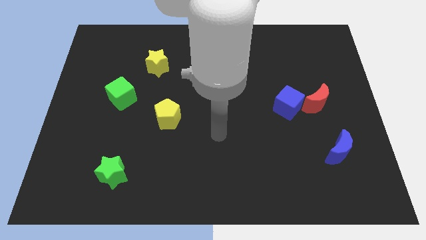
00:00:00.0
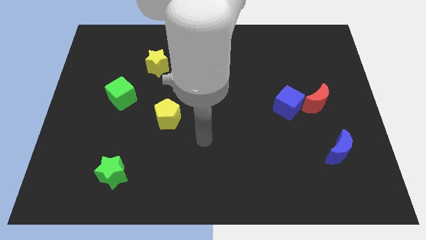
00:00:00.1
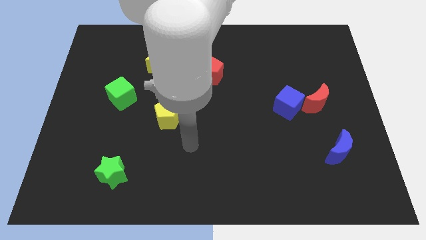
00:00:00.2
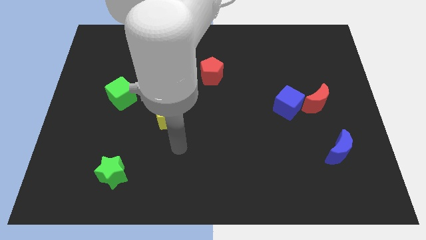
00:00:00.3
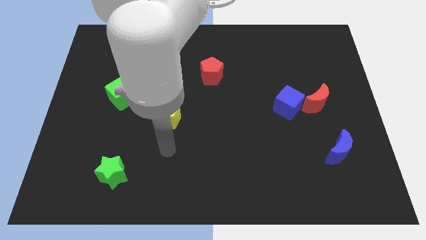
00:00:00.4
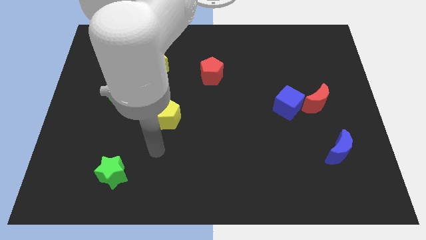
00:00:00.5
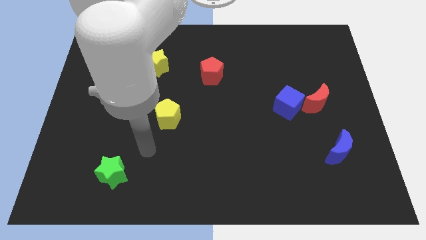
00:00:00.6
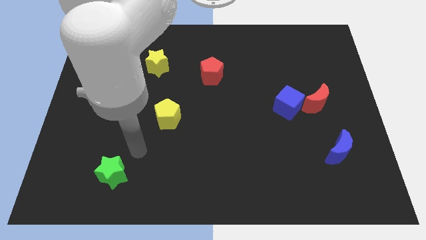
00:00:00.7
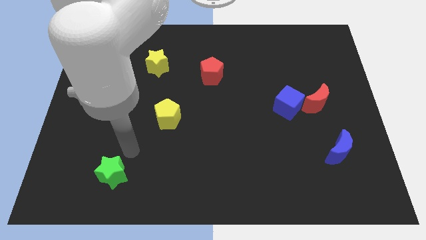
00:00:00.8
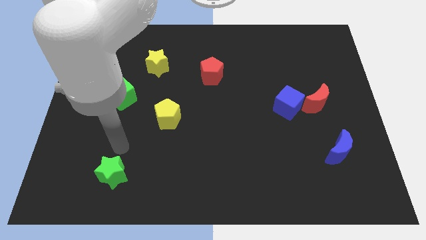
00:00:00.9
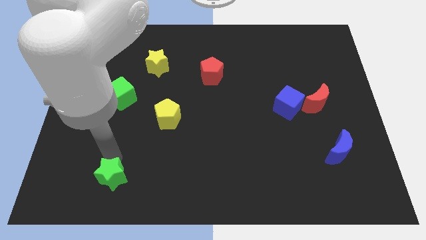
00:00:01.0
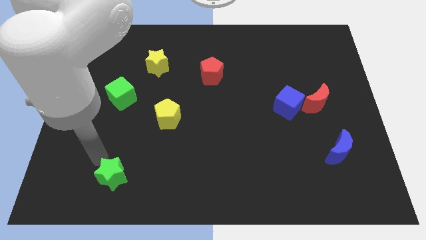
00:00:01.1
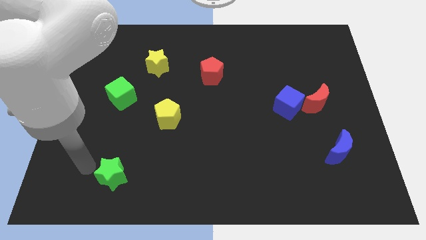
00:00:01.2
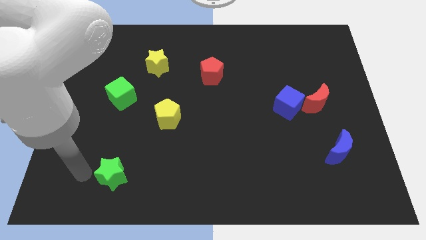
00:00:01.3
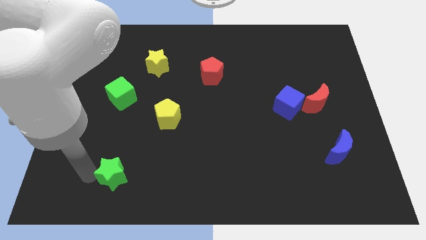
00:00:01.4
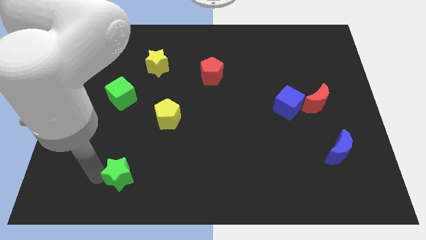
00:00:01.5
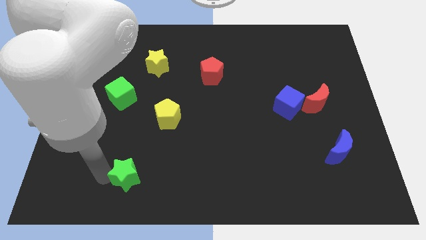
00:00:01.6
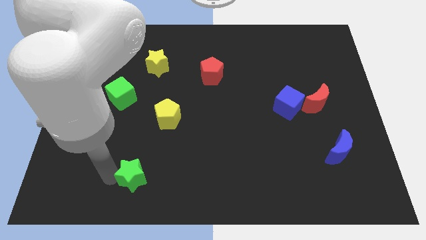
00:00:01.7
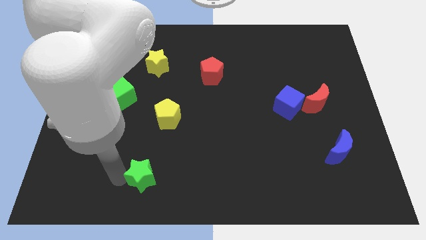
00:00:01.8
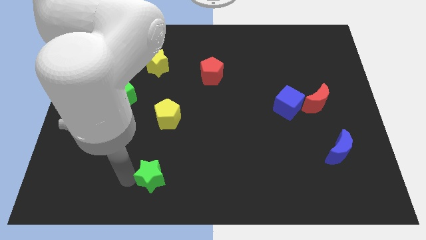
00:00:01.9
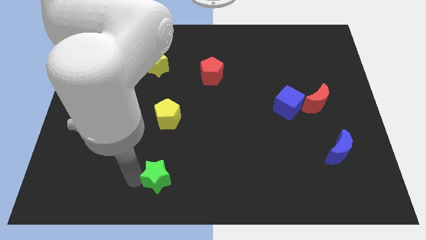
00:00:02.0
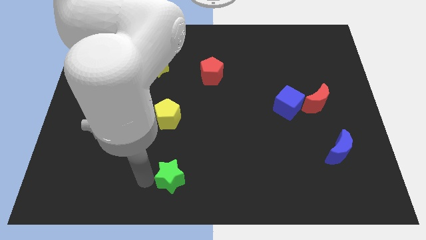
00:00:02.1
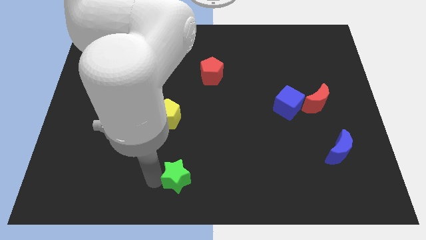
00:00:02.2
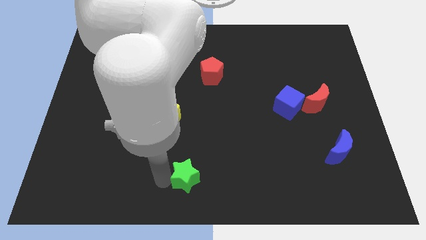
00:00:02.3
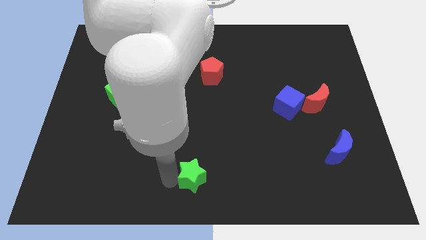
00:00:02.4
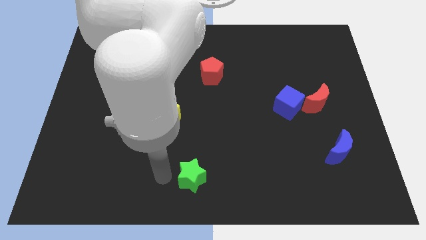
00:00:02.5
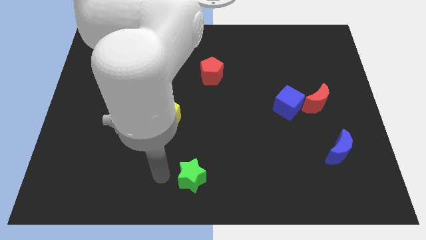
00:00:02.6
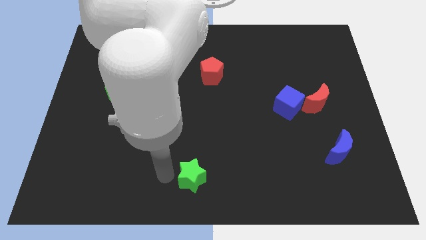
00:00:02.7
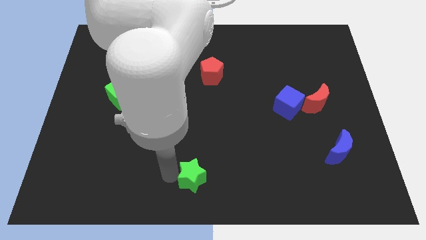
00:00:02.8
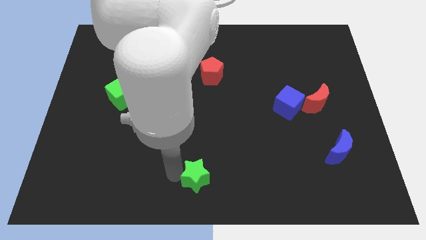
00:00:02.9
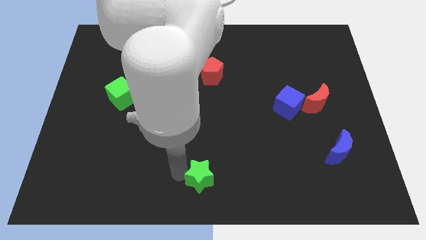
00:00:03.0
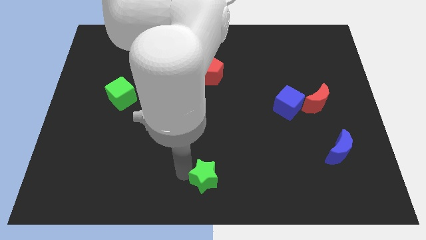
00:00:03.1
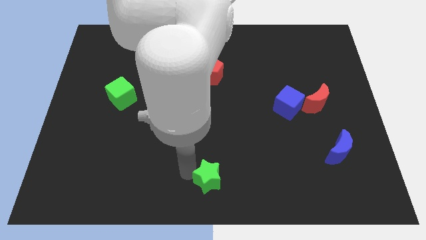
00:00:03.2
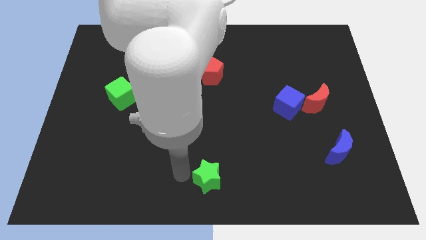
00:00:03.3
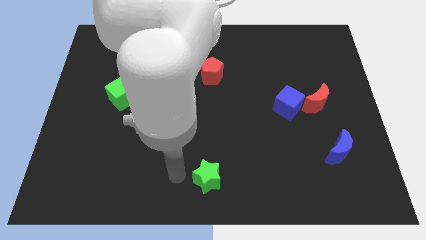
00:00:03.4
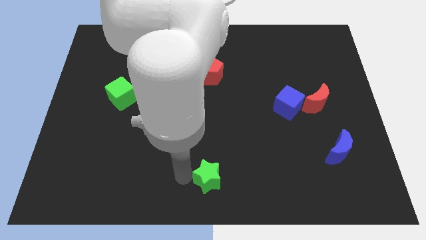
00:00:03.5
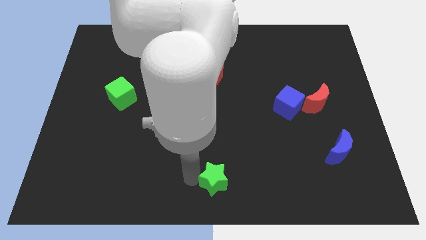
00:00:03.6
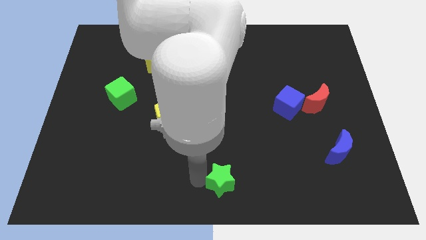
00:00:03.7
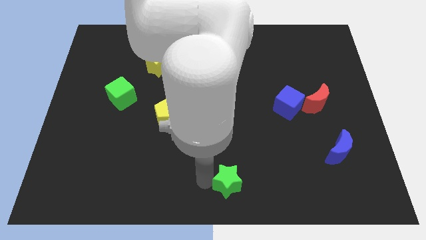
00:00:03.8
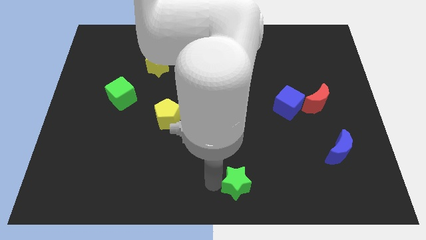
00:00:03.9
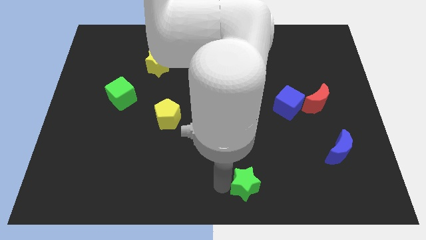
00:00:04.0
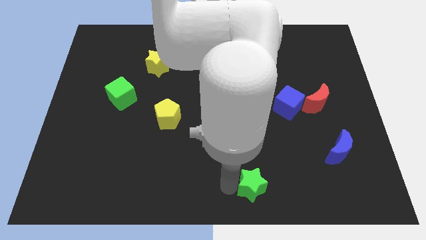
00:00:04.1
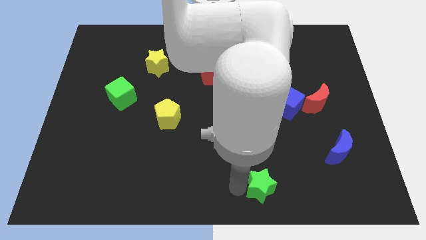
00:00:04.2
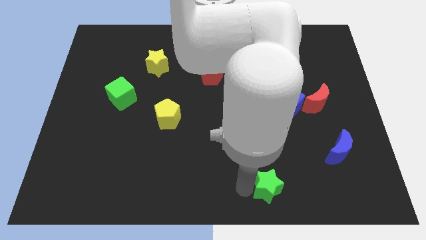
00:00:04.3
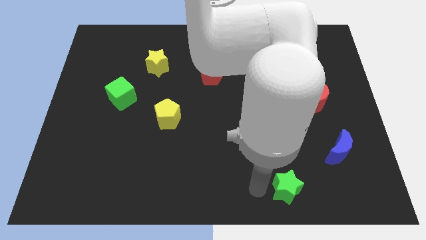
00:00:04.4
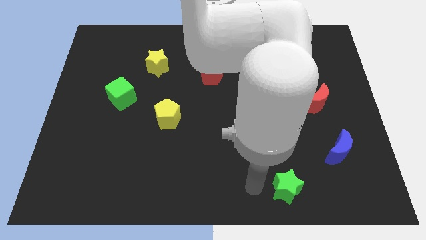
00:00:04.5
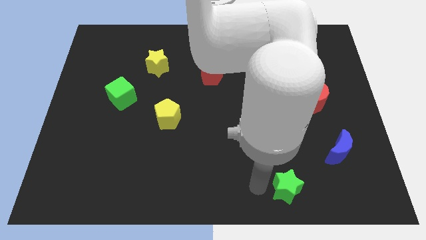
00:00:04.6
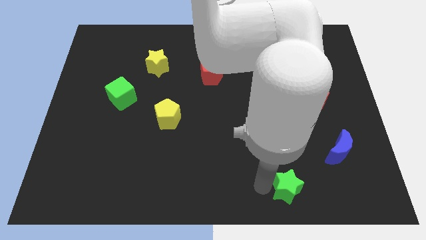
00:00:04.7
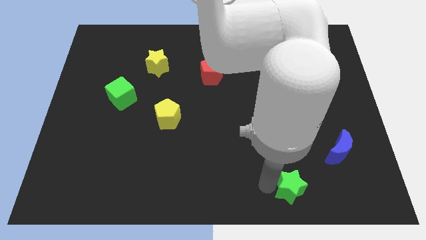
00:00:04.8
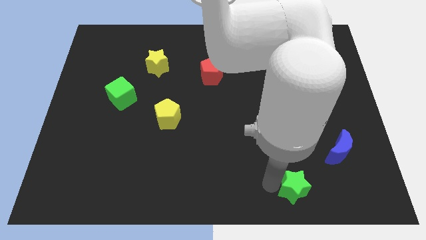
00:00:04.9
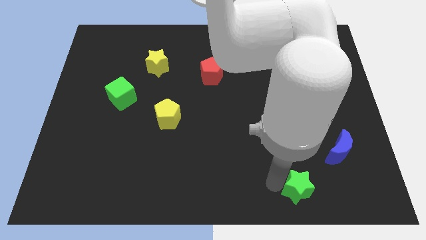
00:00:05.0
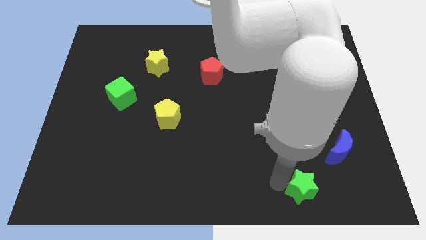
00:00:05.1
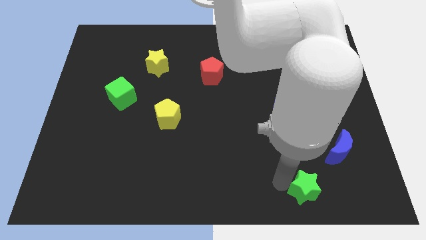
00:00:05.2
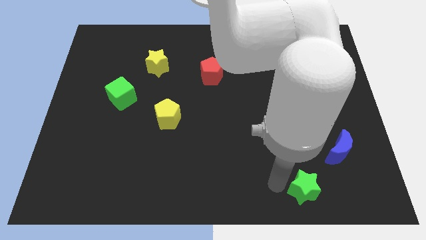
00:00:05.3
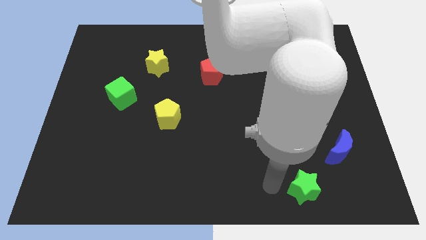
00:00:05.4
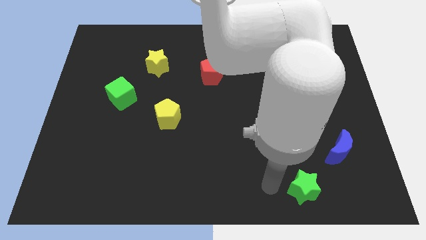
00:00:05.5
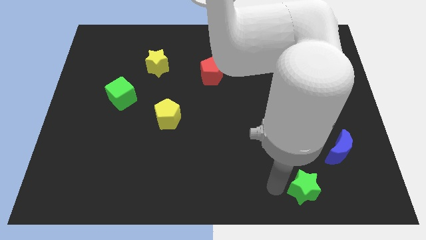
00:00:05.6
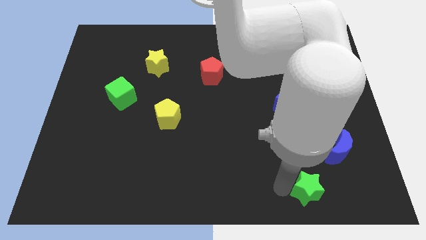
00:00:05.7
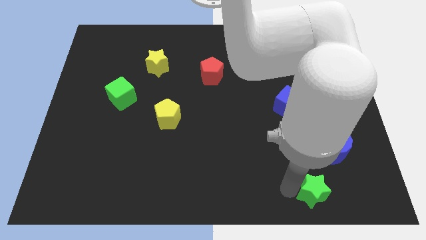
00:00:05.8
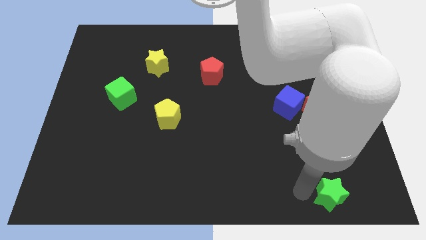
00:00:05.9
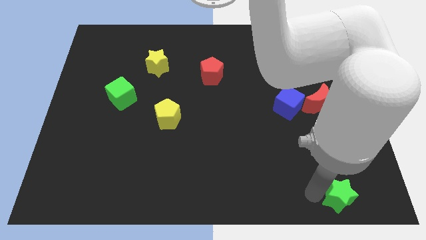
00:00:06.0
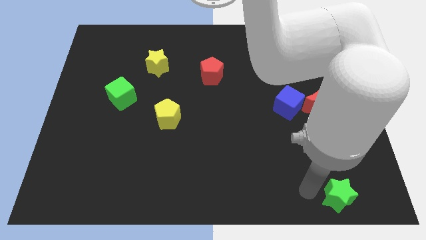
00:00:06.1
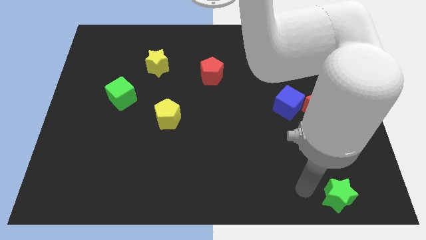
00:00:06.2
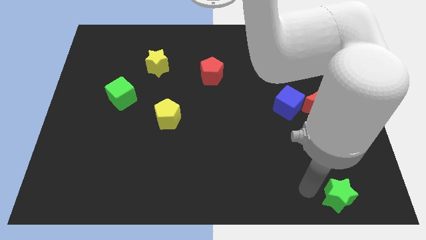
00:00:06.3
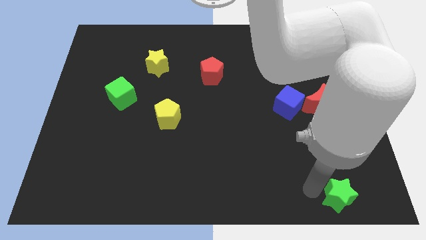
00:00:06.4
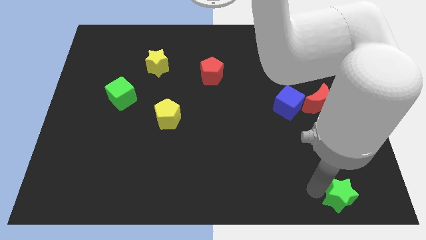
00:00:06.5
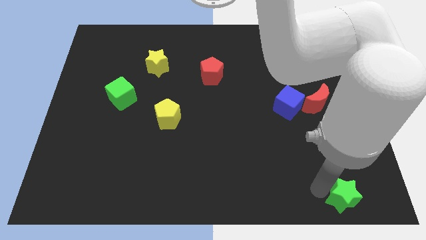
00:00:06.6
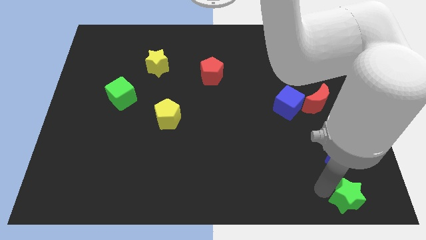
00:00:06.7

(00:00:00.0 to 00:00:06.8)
move the green star to the bottom right

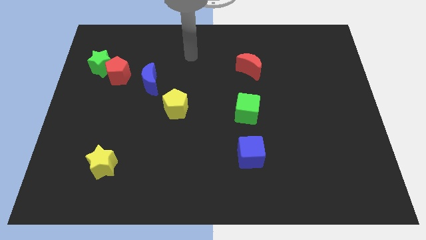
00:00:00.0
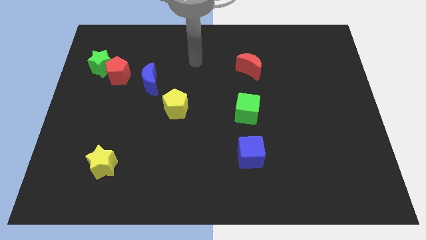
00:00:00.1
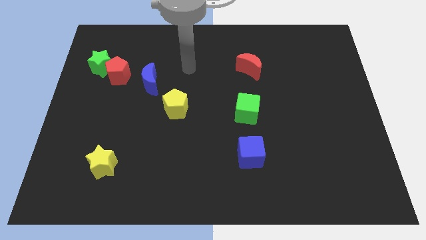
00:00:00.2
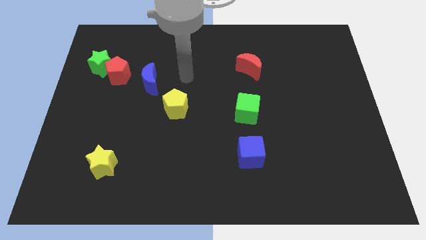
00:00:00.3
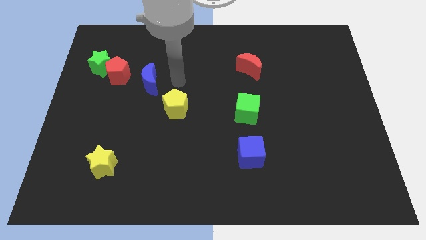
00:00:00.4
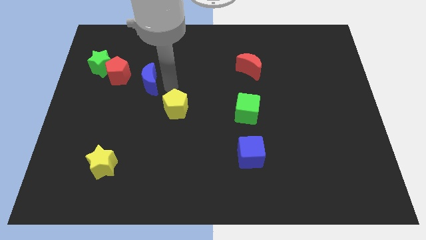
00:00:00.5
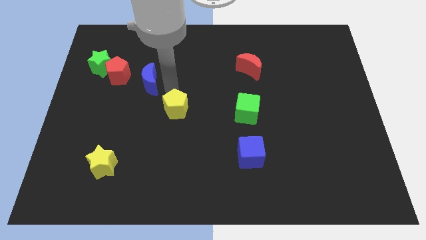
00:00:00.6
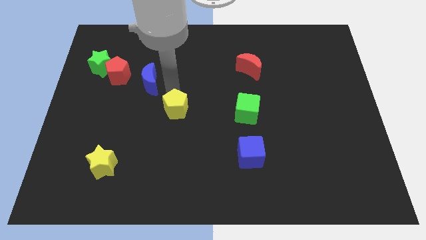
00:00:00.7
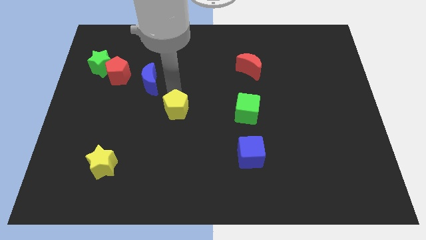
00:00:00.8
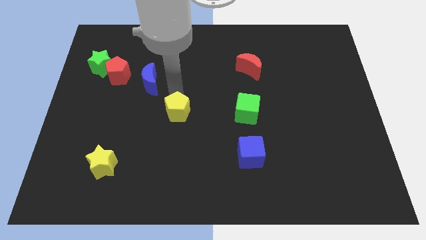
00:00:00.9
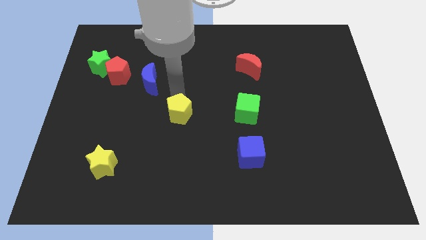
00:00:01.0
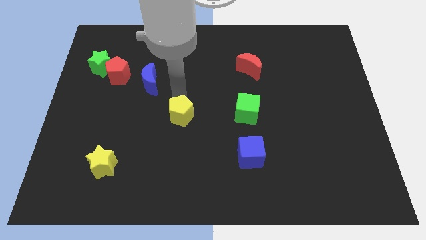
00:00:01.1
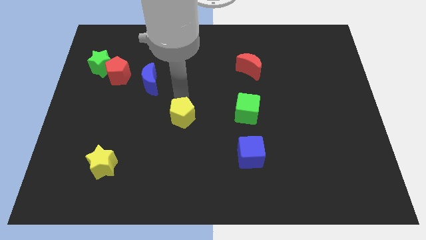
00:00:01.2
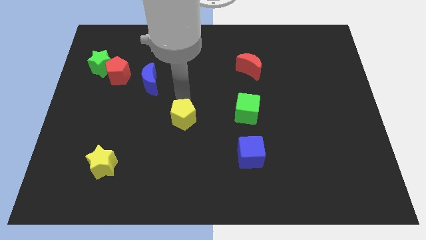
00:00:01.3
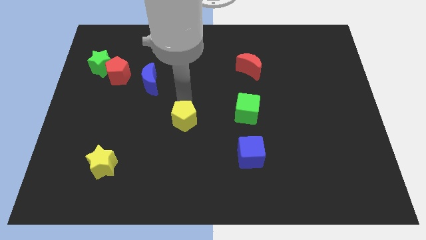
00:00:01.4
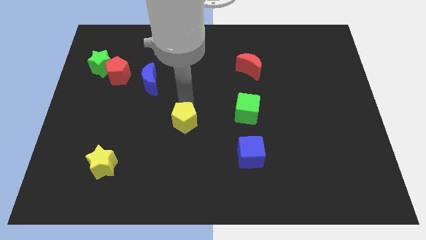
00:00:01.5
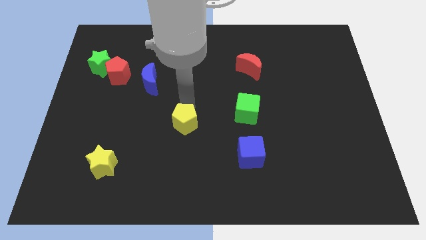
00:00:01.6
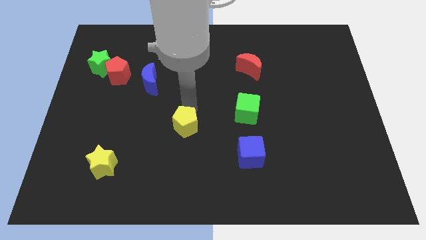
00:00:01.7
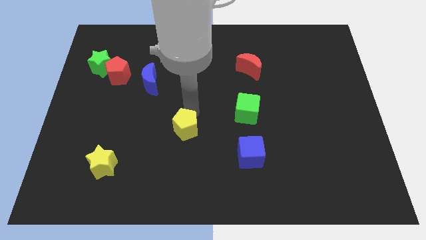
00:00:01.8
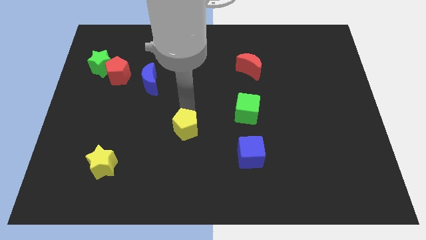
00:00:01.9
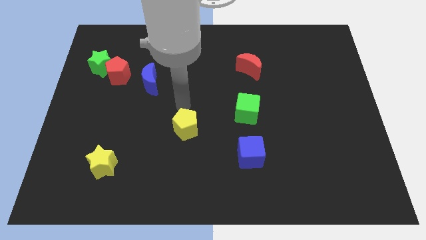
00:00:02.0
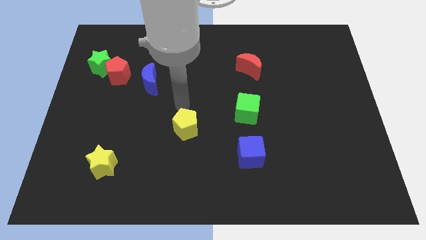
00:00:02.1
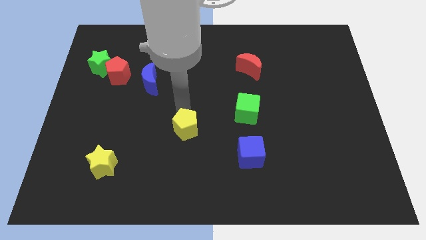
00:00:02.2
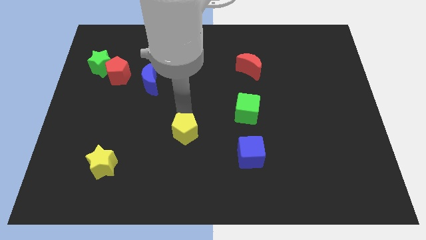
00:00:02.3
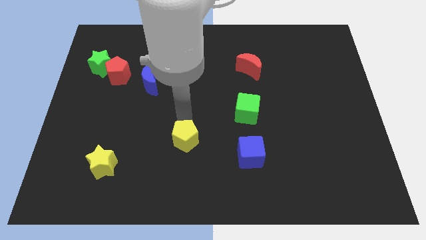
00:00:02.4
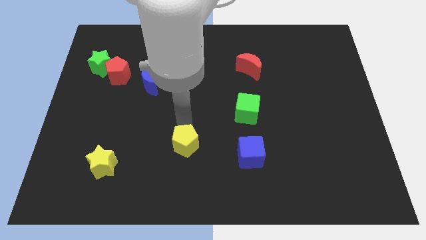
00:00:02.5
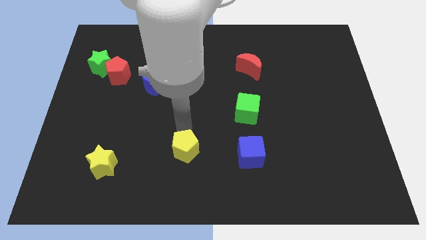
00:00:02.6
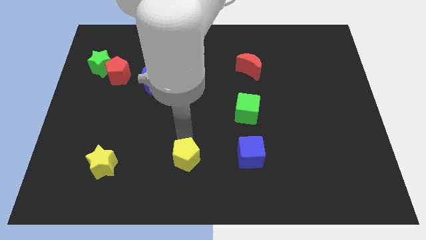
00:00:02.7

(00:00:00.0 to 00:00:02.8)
move the yellow pentagon to the bottom
